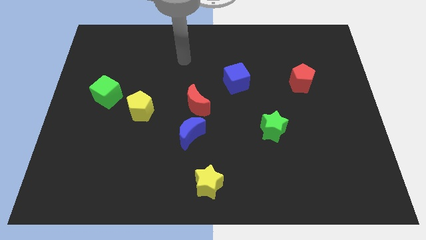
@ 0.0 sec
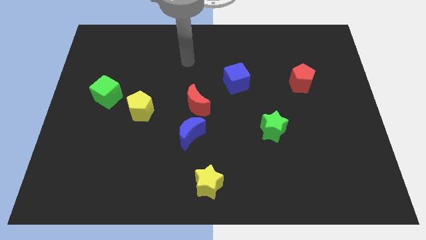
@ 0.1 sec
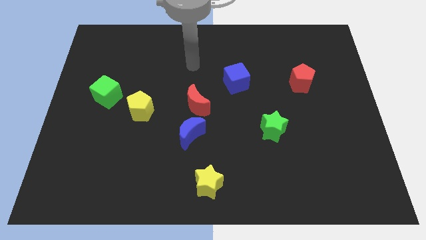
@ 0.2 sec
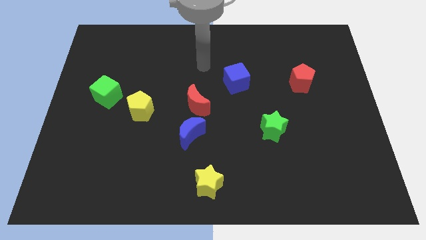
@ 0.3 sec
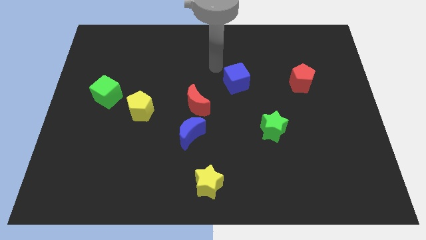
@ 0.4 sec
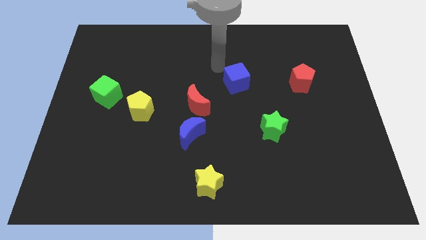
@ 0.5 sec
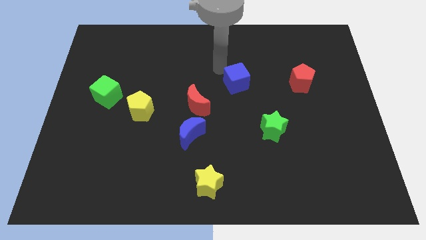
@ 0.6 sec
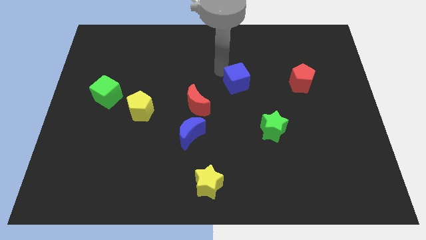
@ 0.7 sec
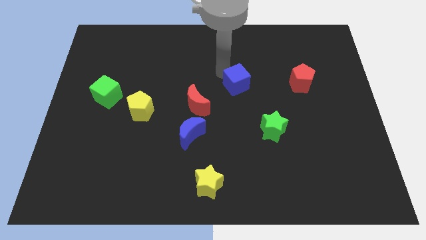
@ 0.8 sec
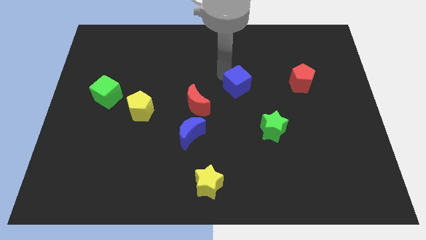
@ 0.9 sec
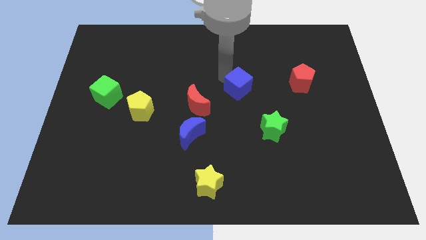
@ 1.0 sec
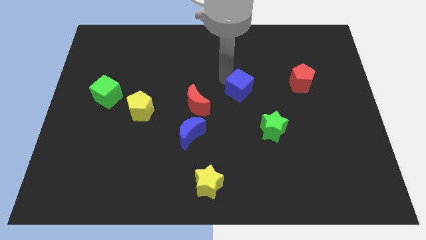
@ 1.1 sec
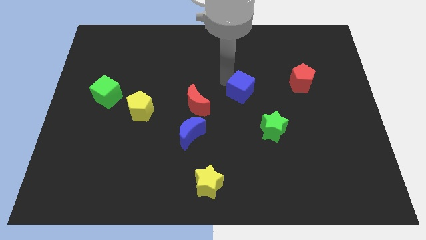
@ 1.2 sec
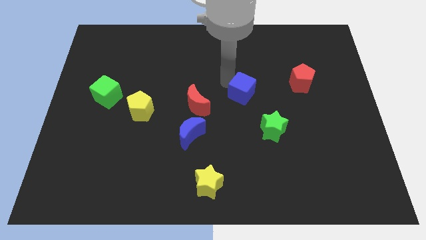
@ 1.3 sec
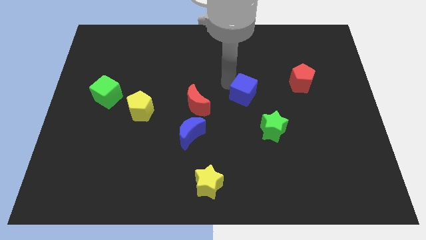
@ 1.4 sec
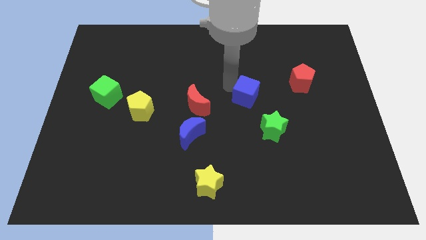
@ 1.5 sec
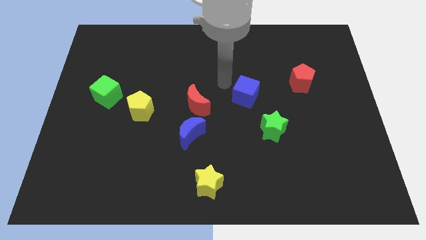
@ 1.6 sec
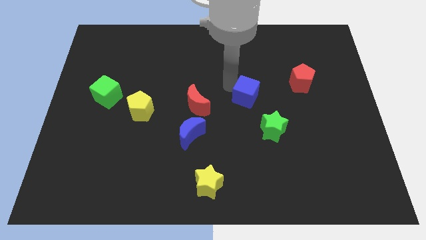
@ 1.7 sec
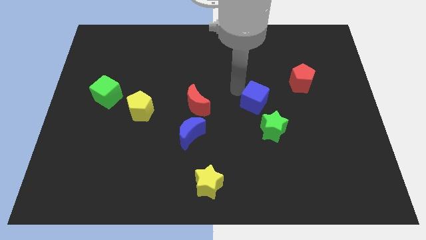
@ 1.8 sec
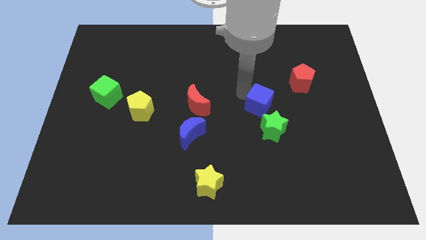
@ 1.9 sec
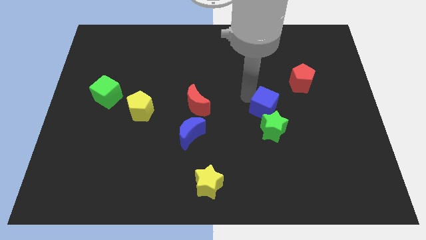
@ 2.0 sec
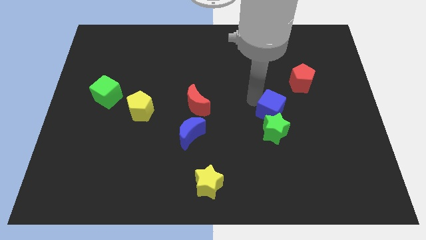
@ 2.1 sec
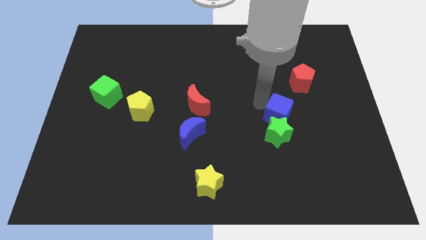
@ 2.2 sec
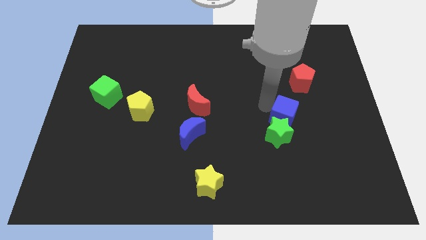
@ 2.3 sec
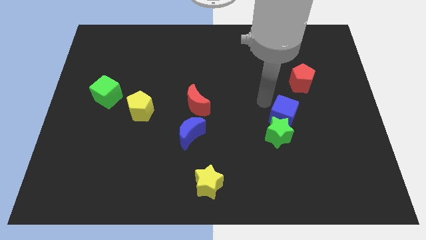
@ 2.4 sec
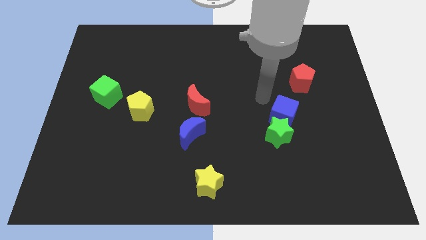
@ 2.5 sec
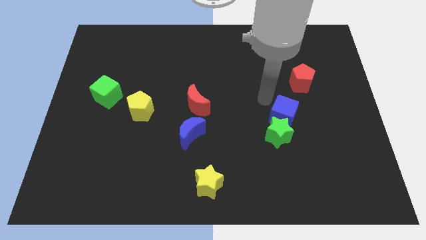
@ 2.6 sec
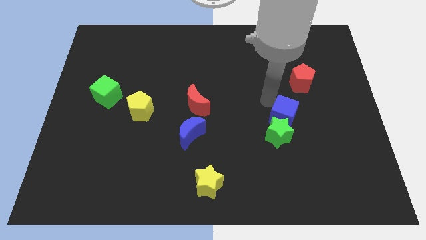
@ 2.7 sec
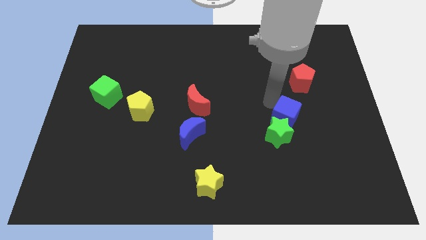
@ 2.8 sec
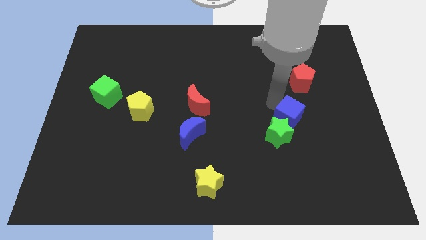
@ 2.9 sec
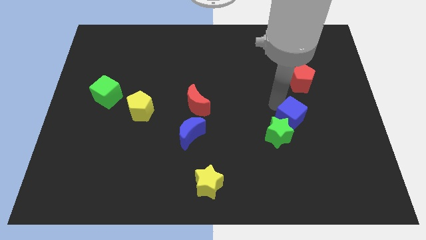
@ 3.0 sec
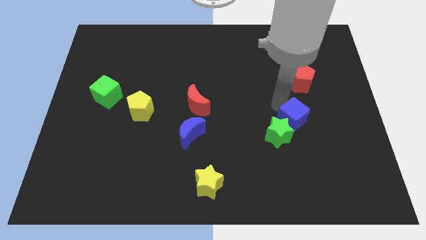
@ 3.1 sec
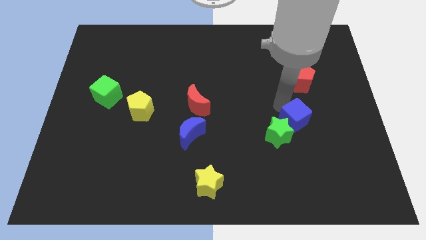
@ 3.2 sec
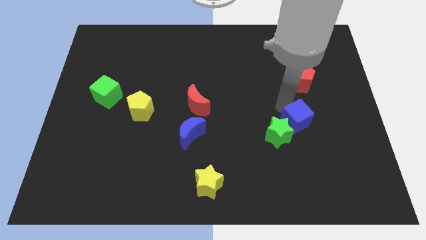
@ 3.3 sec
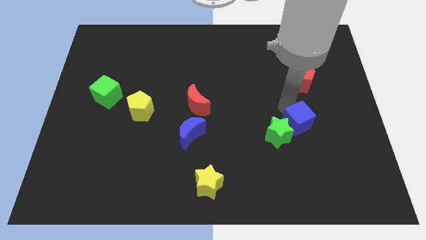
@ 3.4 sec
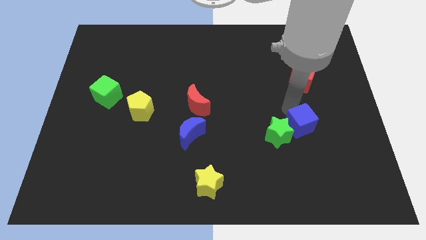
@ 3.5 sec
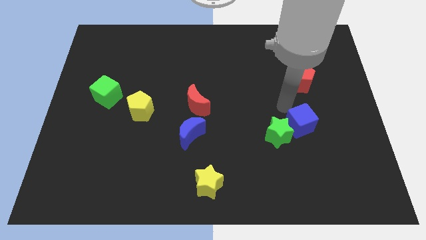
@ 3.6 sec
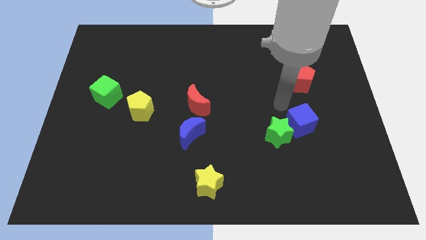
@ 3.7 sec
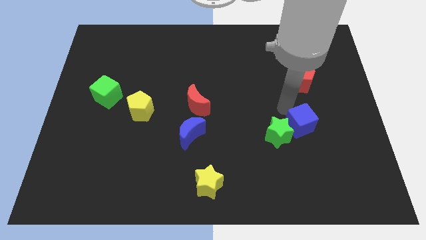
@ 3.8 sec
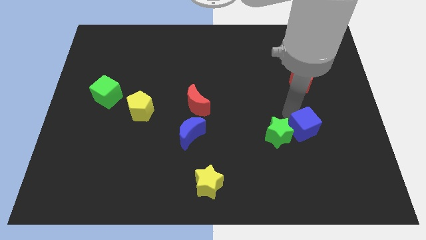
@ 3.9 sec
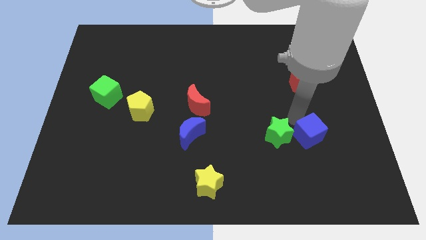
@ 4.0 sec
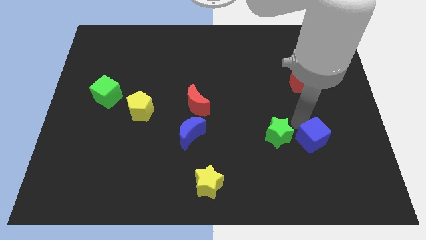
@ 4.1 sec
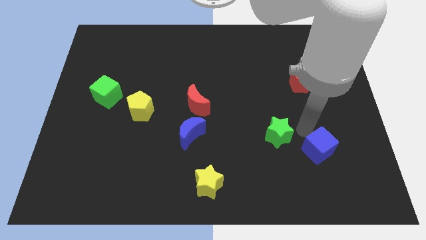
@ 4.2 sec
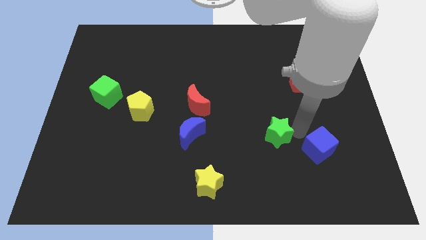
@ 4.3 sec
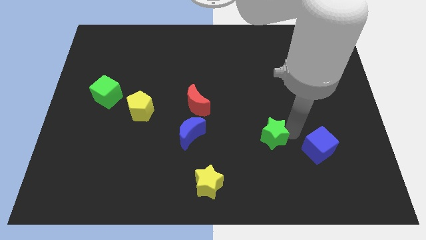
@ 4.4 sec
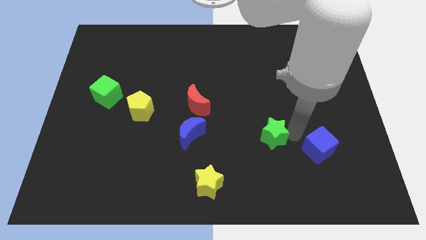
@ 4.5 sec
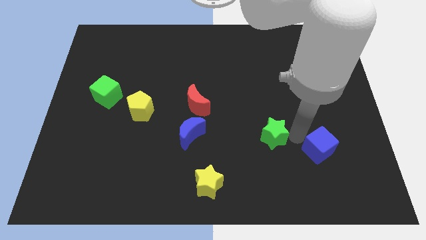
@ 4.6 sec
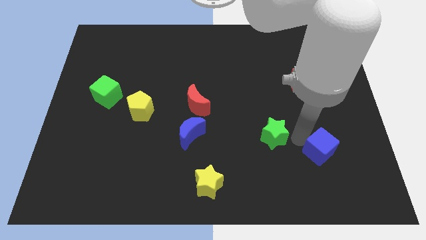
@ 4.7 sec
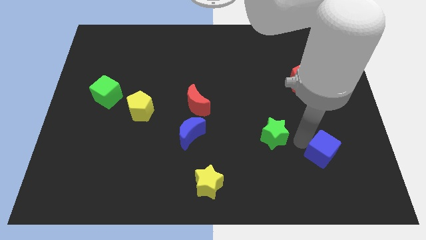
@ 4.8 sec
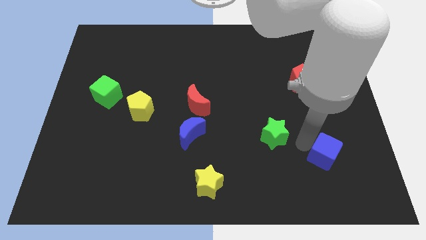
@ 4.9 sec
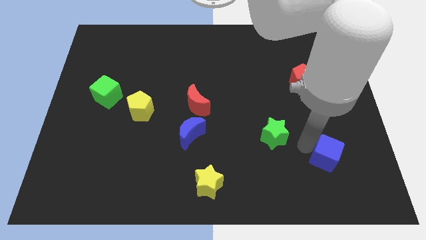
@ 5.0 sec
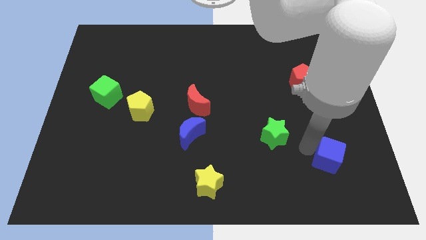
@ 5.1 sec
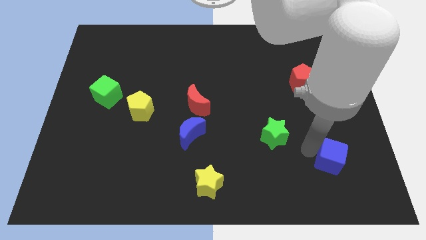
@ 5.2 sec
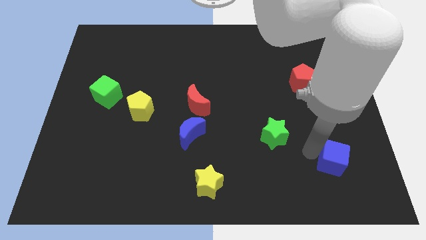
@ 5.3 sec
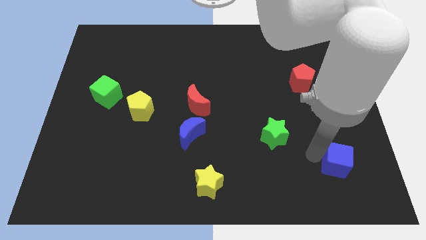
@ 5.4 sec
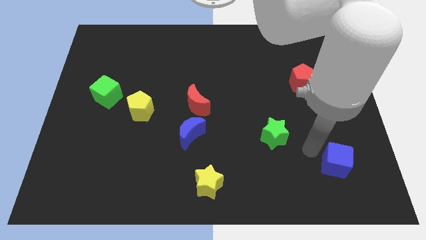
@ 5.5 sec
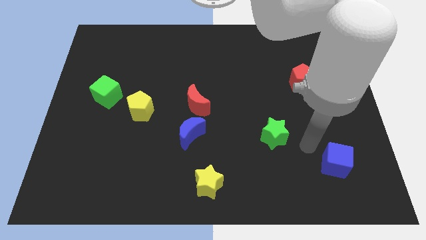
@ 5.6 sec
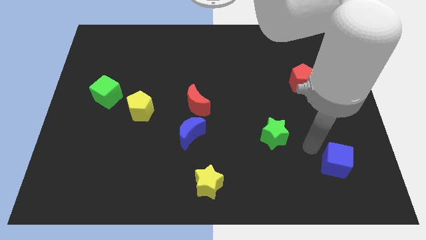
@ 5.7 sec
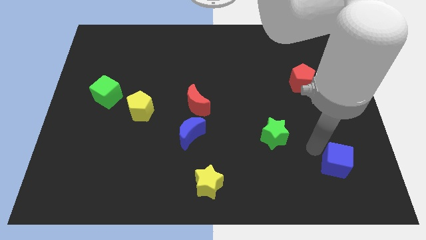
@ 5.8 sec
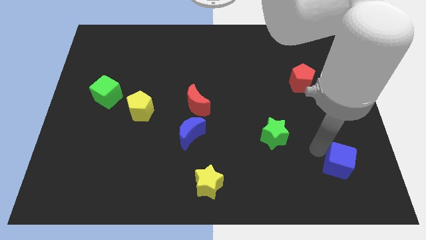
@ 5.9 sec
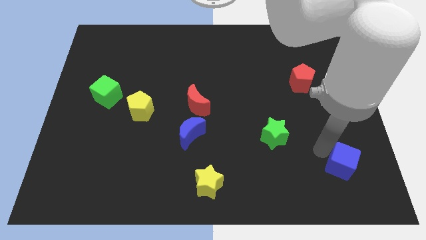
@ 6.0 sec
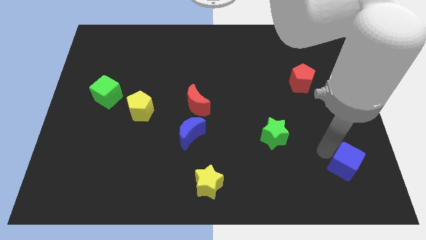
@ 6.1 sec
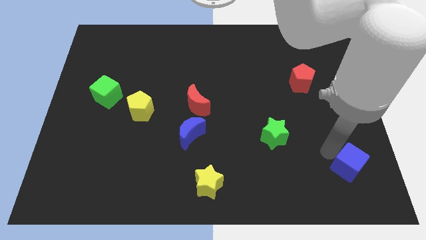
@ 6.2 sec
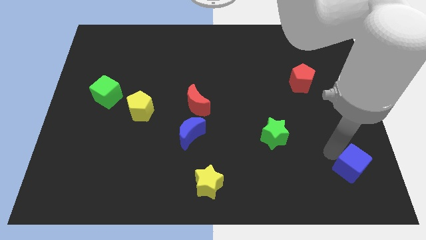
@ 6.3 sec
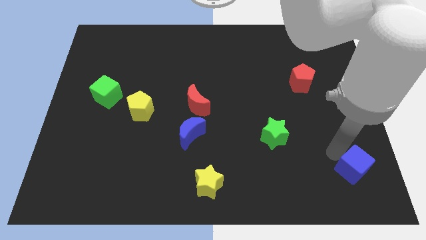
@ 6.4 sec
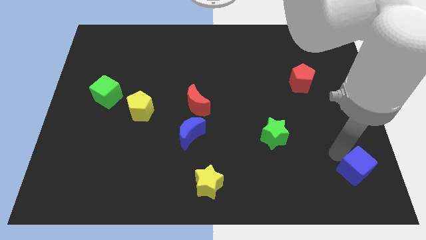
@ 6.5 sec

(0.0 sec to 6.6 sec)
push the blue cube to the bottom right of the board

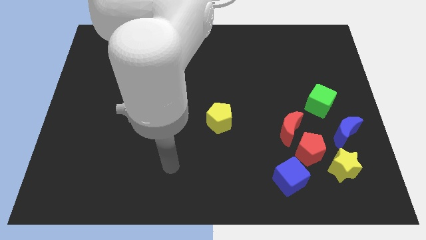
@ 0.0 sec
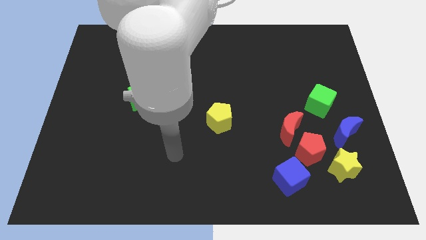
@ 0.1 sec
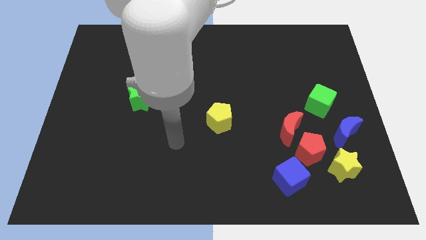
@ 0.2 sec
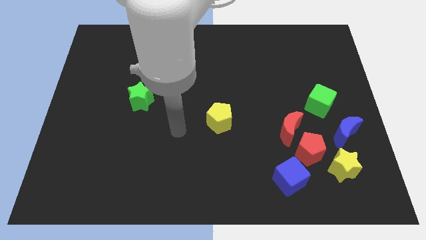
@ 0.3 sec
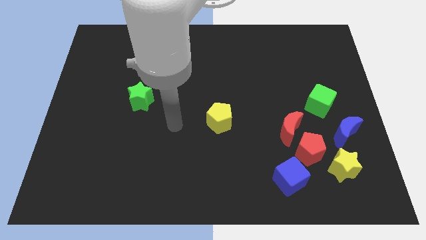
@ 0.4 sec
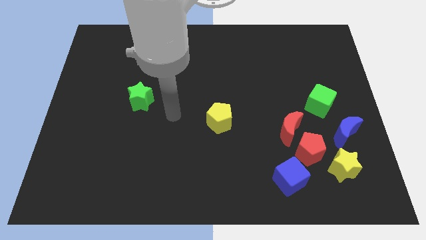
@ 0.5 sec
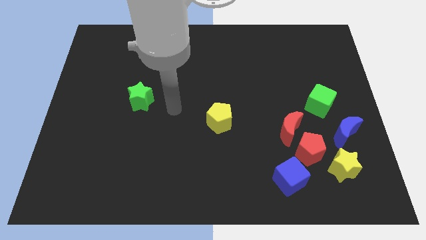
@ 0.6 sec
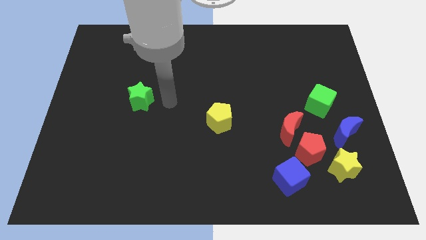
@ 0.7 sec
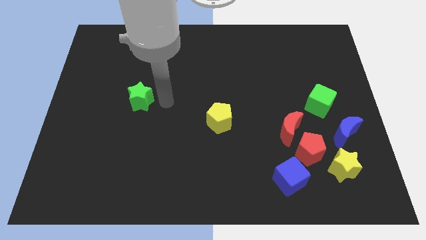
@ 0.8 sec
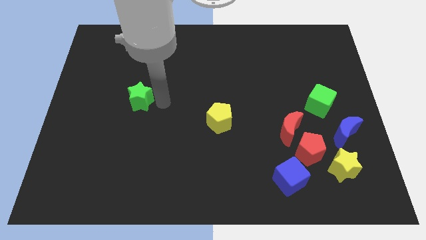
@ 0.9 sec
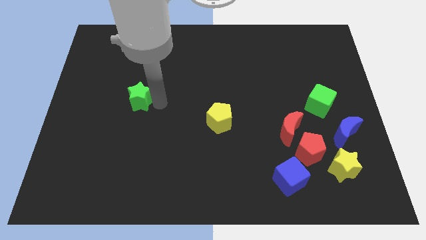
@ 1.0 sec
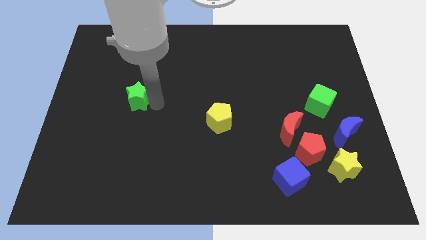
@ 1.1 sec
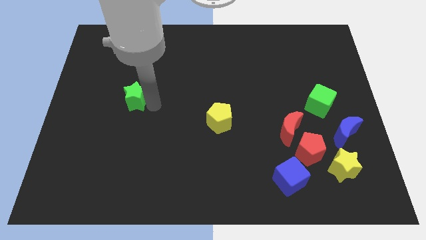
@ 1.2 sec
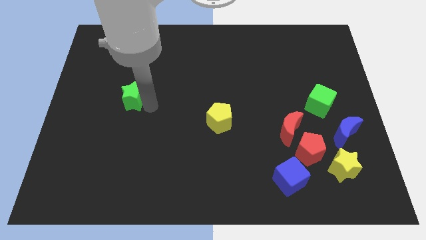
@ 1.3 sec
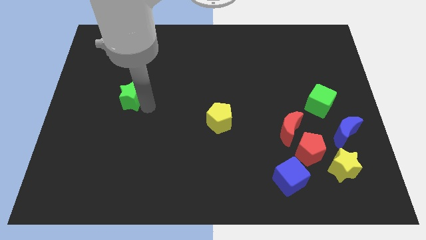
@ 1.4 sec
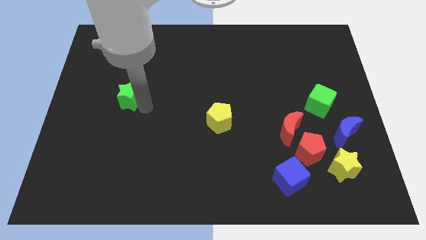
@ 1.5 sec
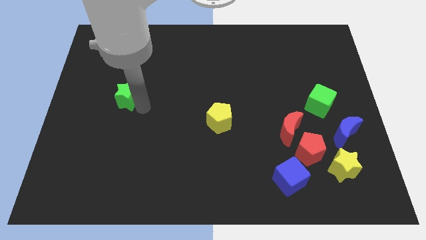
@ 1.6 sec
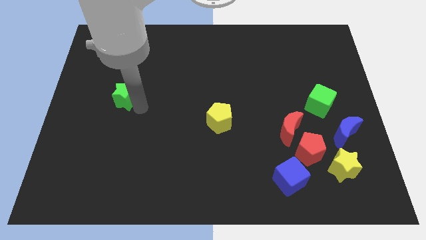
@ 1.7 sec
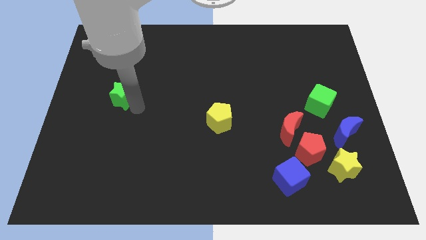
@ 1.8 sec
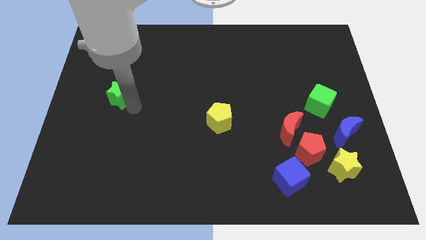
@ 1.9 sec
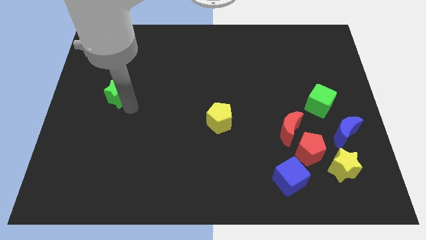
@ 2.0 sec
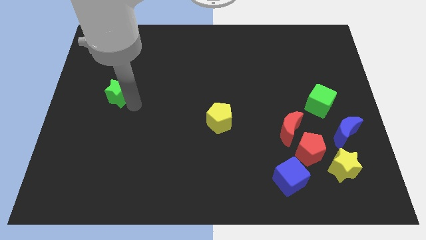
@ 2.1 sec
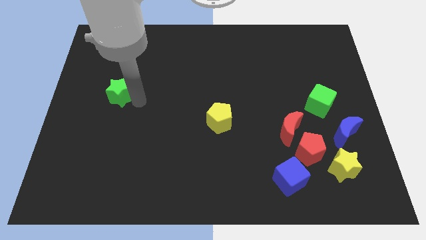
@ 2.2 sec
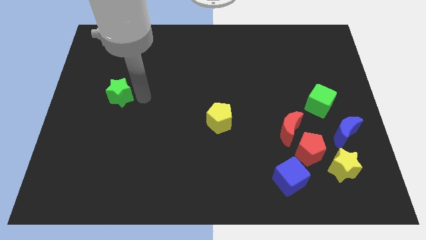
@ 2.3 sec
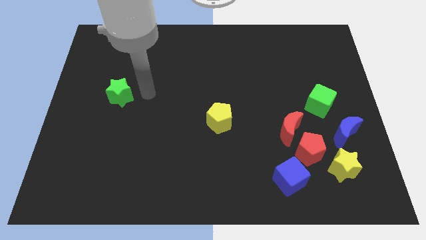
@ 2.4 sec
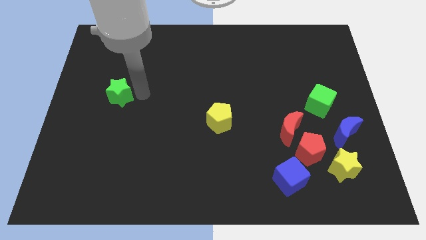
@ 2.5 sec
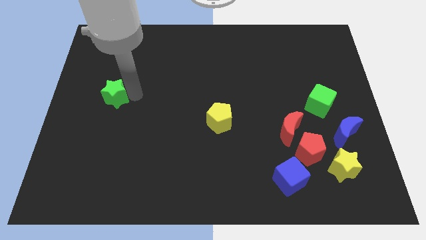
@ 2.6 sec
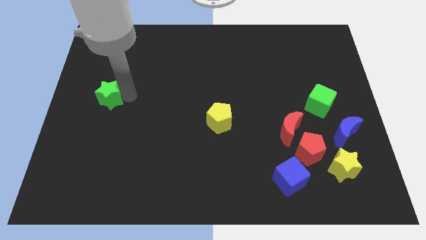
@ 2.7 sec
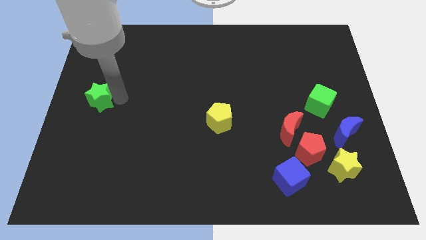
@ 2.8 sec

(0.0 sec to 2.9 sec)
push the green star to the left side of the board
